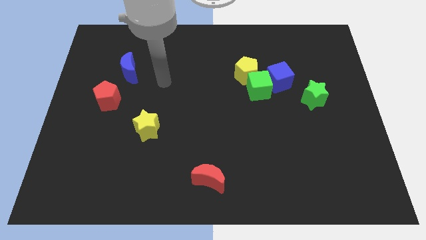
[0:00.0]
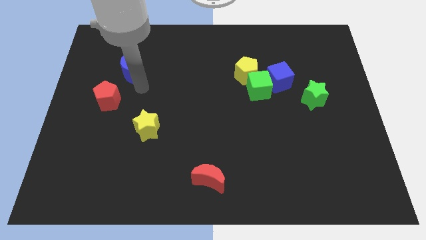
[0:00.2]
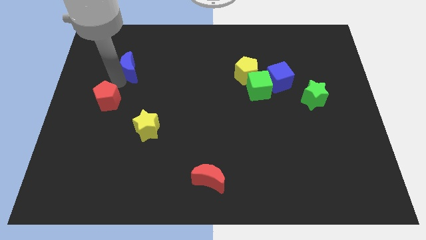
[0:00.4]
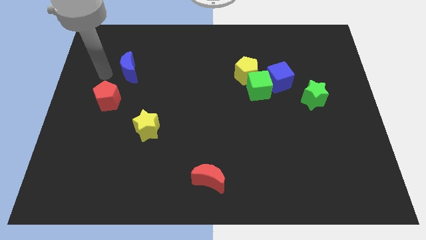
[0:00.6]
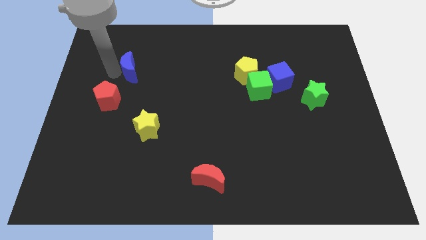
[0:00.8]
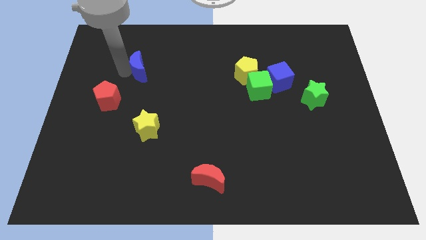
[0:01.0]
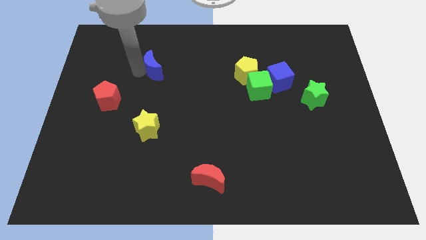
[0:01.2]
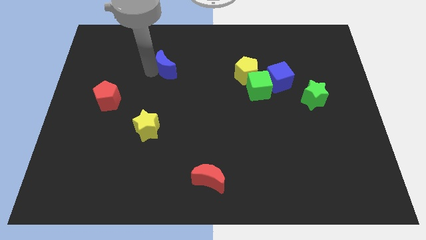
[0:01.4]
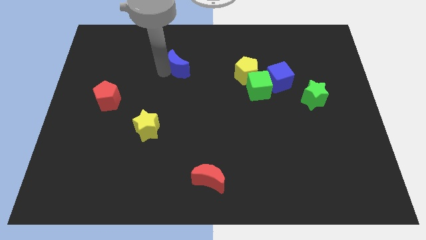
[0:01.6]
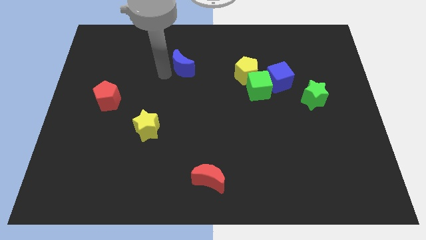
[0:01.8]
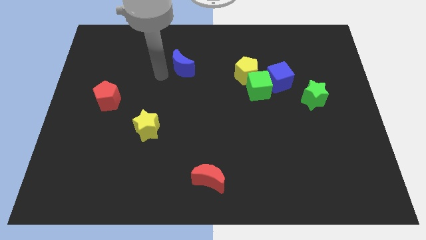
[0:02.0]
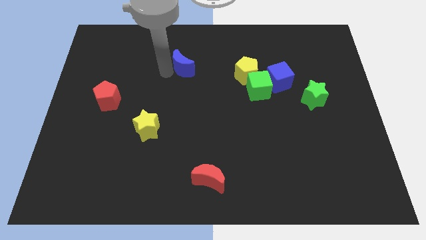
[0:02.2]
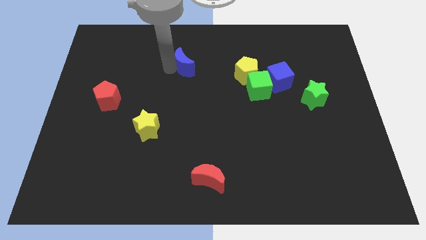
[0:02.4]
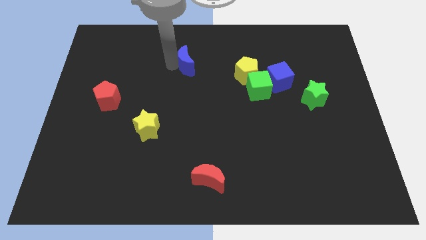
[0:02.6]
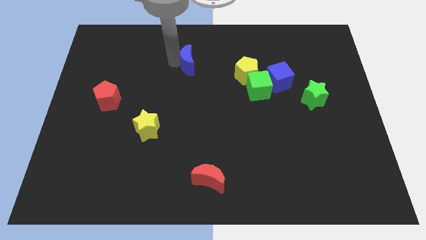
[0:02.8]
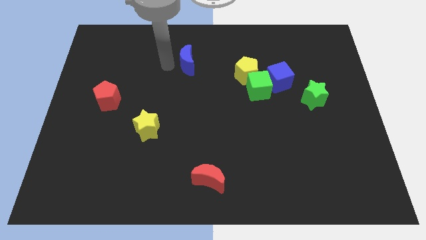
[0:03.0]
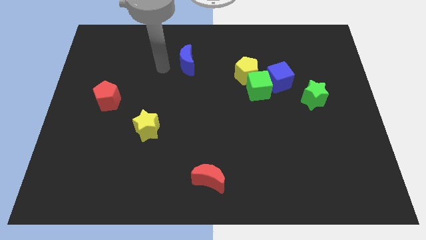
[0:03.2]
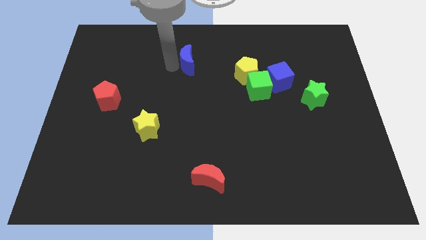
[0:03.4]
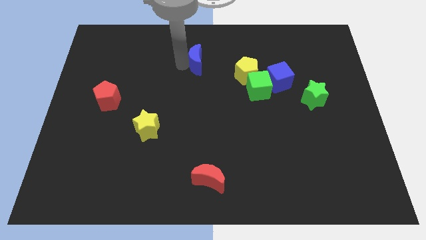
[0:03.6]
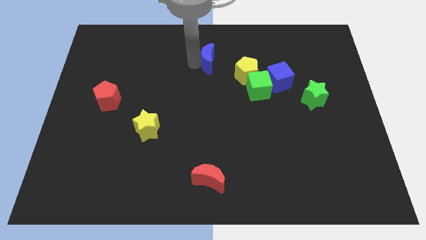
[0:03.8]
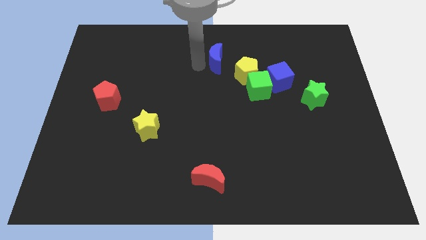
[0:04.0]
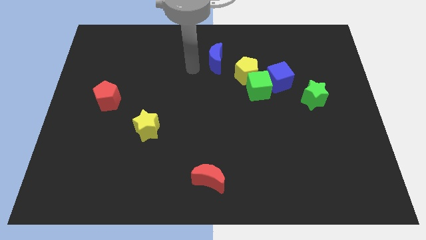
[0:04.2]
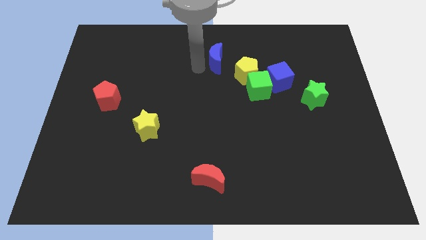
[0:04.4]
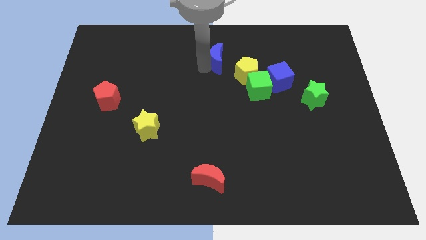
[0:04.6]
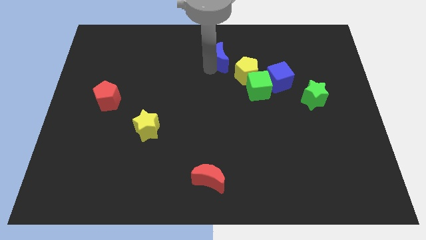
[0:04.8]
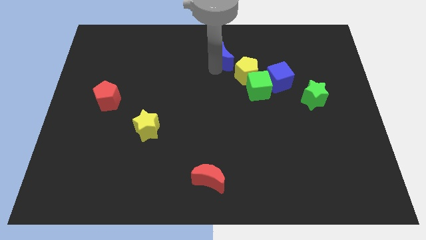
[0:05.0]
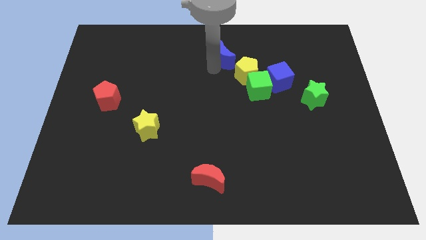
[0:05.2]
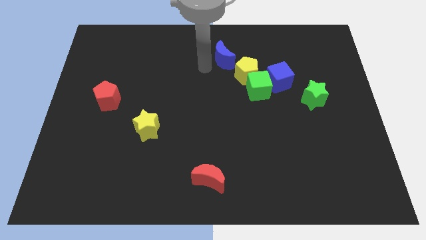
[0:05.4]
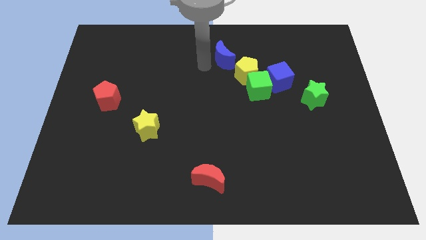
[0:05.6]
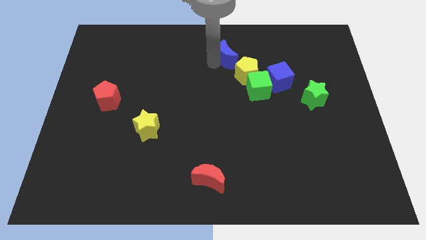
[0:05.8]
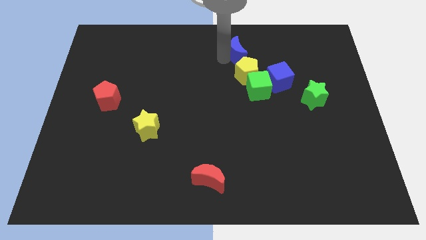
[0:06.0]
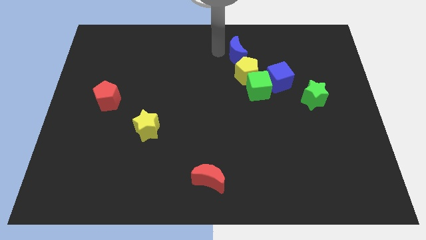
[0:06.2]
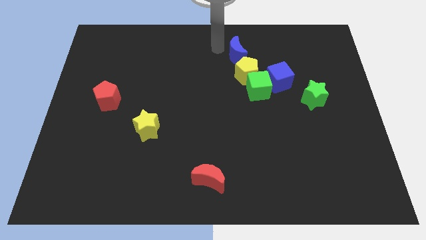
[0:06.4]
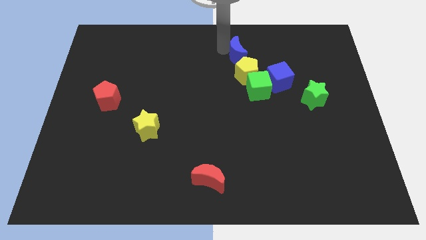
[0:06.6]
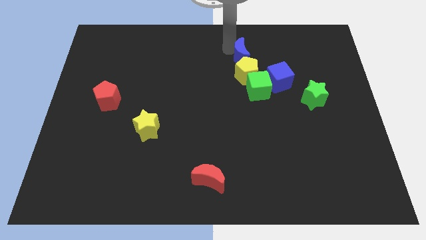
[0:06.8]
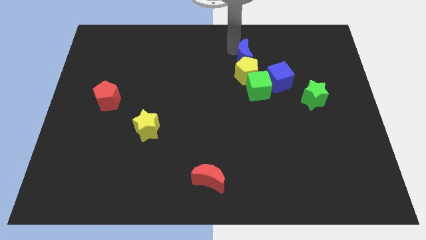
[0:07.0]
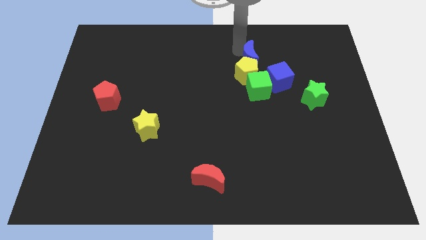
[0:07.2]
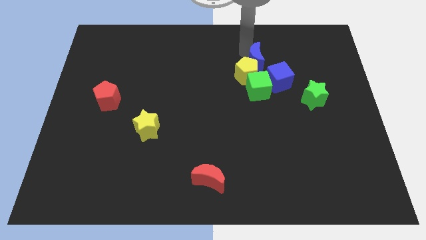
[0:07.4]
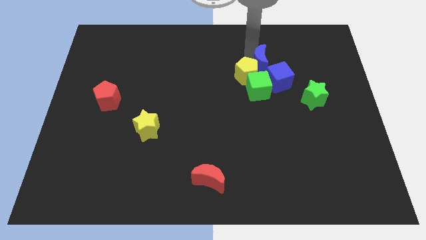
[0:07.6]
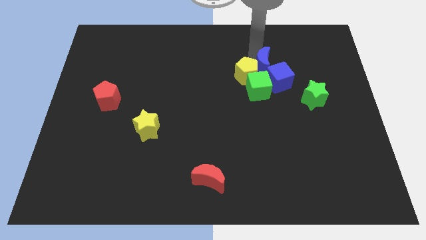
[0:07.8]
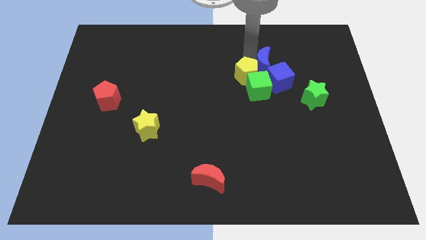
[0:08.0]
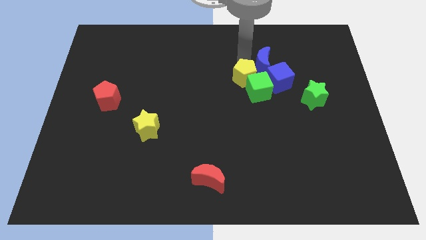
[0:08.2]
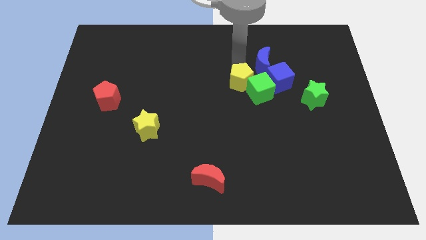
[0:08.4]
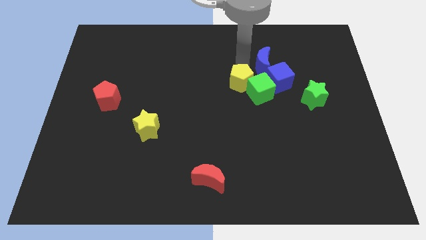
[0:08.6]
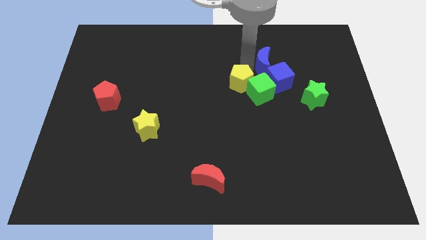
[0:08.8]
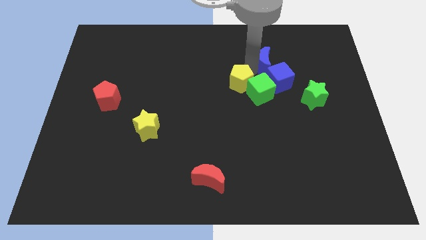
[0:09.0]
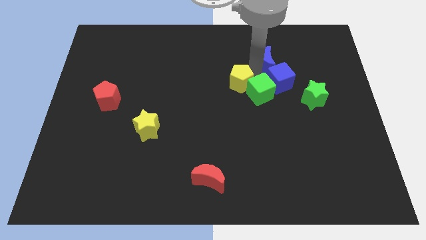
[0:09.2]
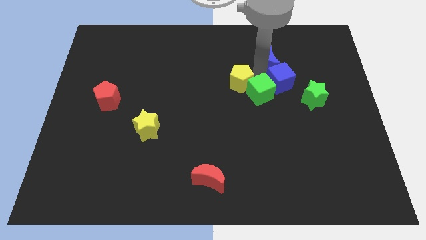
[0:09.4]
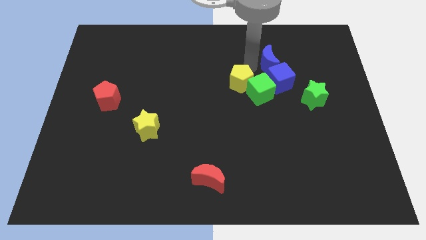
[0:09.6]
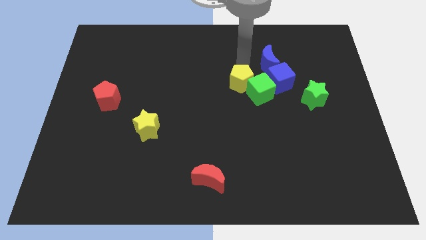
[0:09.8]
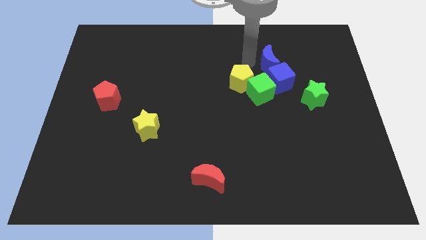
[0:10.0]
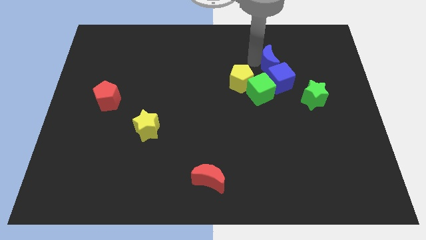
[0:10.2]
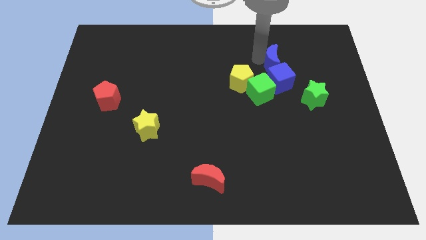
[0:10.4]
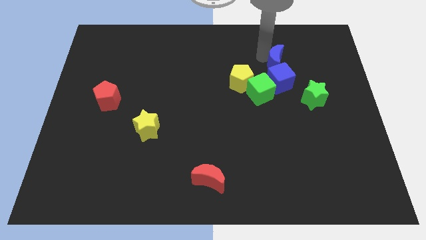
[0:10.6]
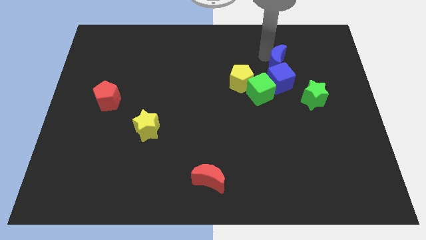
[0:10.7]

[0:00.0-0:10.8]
put the blue moon to the top right side of the blue cube

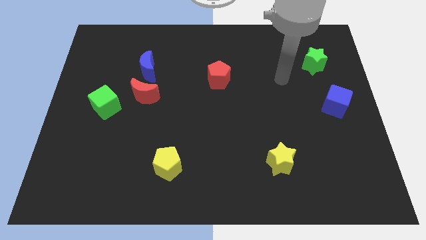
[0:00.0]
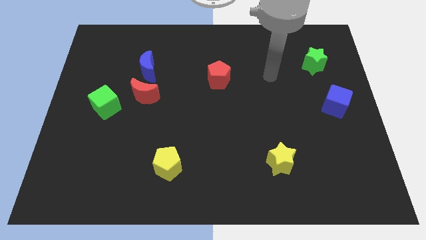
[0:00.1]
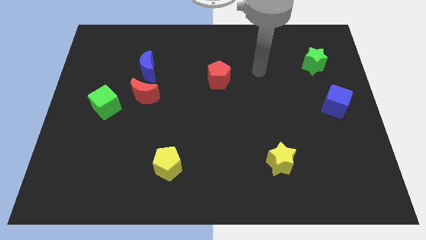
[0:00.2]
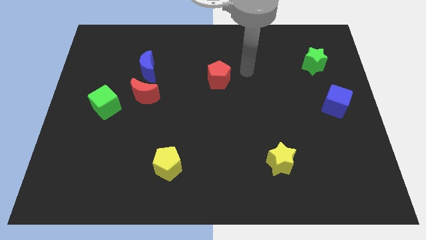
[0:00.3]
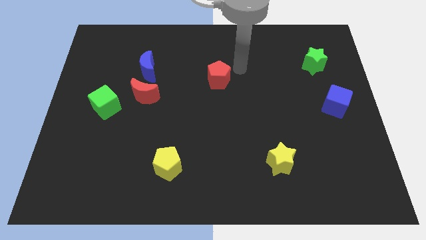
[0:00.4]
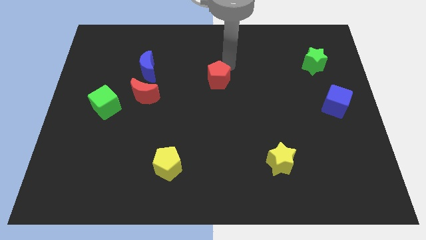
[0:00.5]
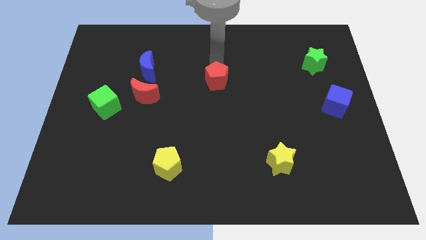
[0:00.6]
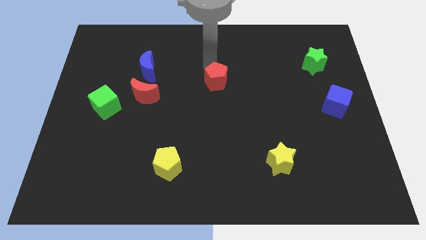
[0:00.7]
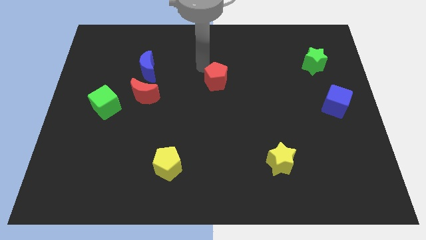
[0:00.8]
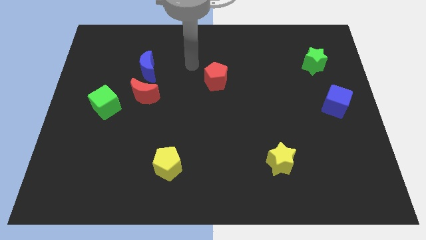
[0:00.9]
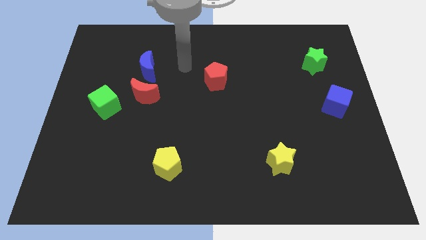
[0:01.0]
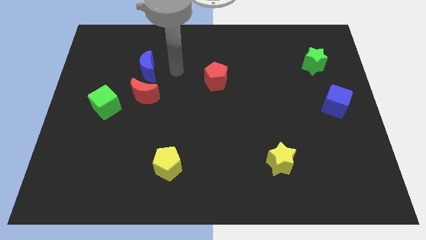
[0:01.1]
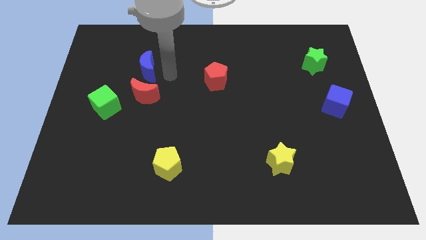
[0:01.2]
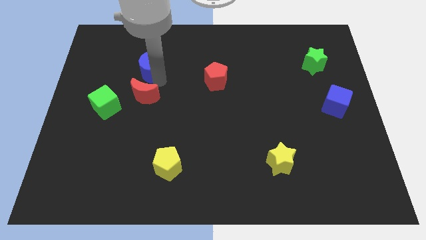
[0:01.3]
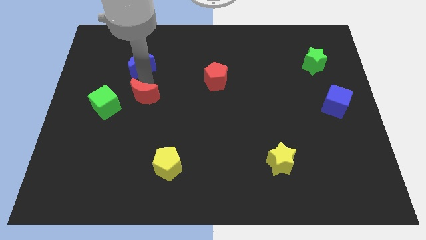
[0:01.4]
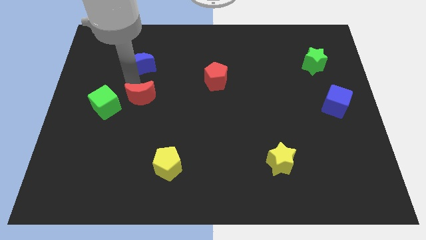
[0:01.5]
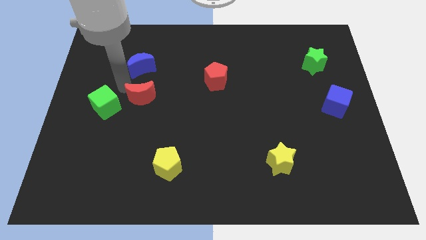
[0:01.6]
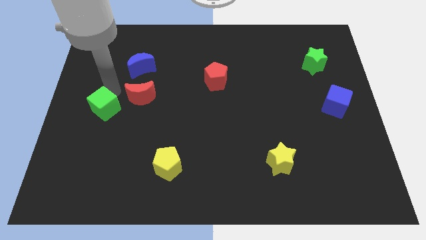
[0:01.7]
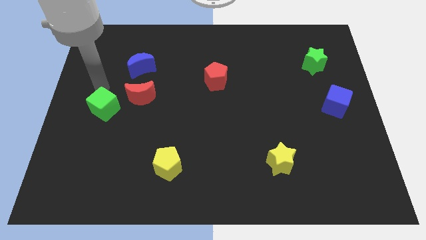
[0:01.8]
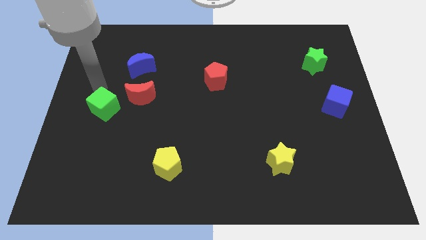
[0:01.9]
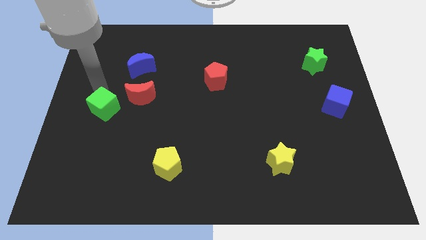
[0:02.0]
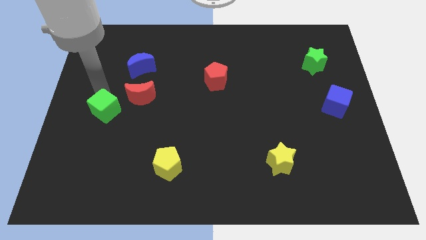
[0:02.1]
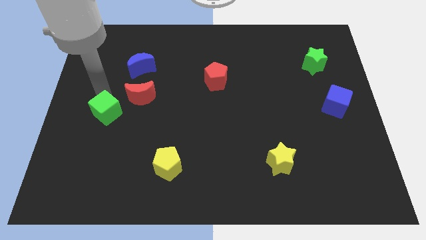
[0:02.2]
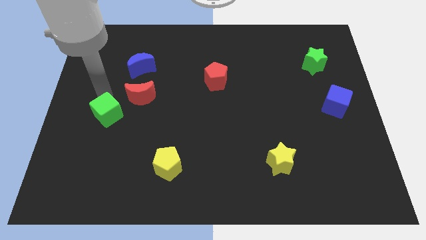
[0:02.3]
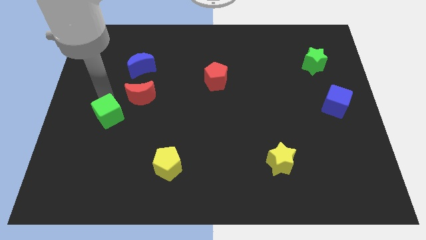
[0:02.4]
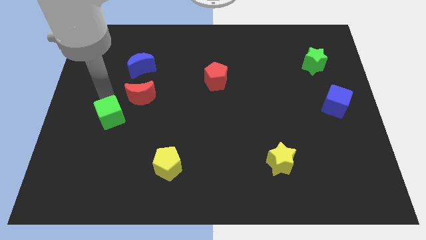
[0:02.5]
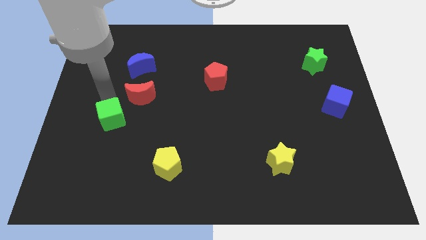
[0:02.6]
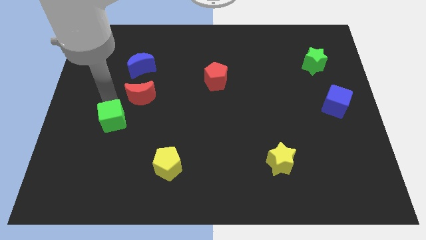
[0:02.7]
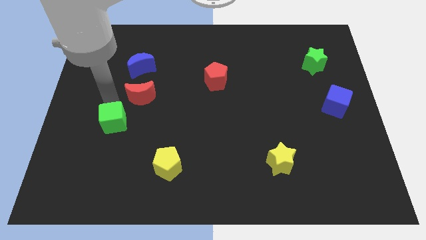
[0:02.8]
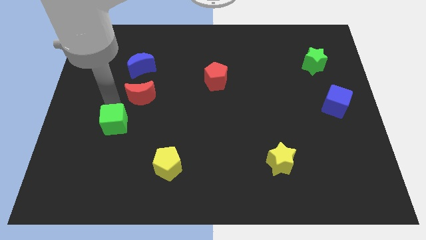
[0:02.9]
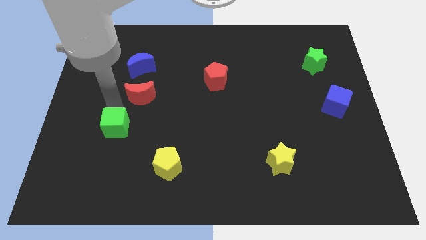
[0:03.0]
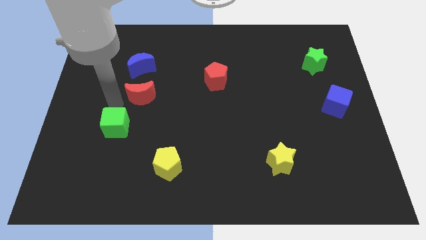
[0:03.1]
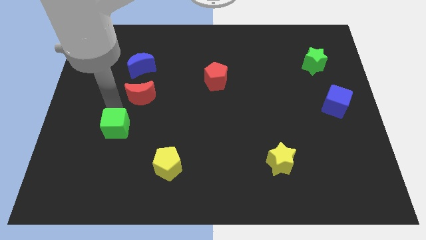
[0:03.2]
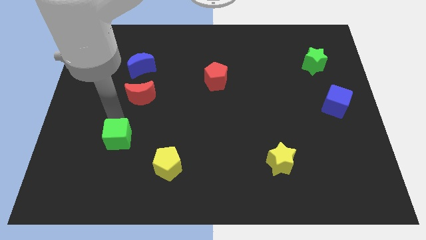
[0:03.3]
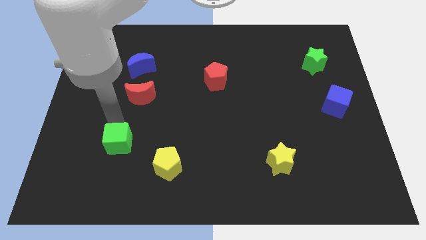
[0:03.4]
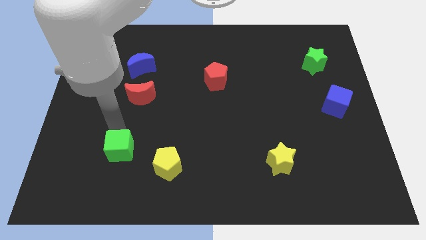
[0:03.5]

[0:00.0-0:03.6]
move the green cube left of the yellow pentagon
